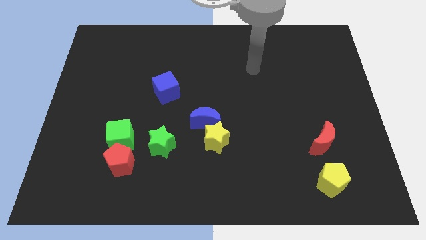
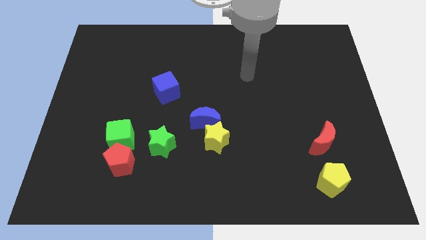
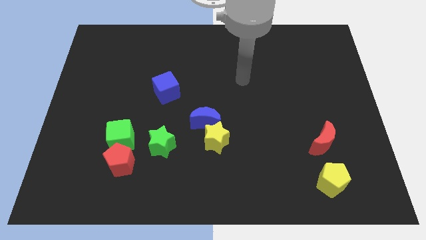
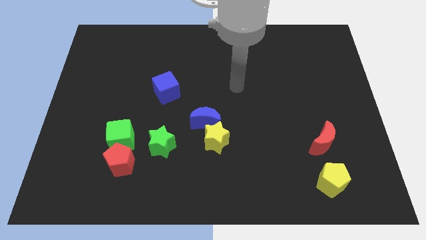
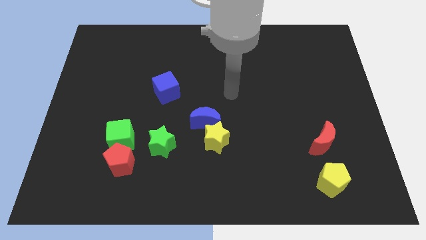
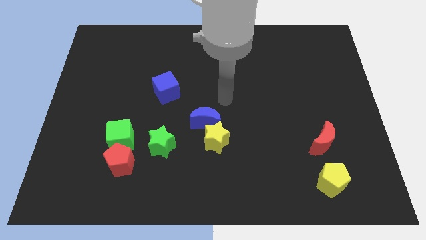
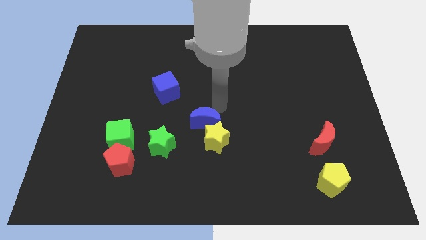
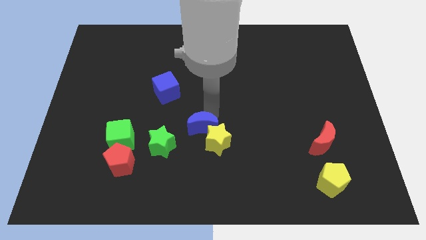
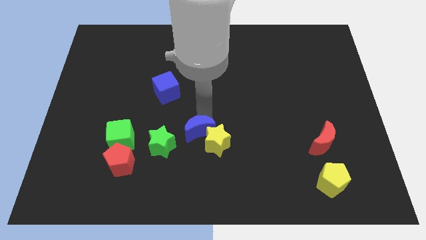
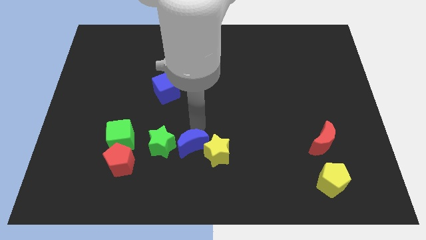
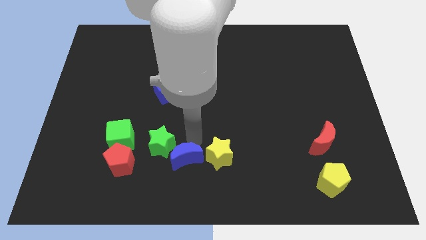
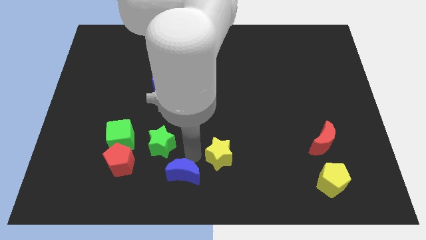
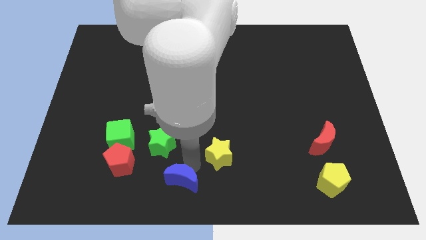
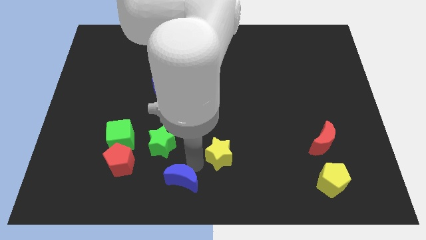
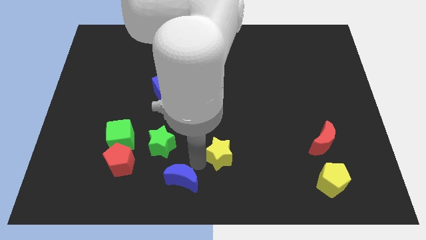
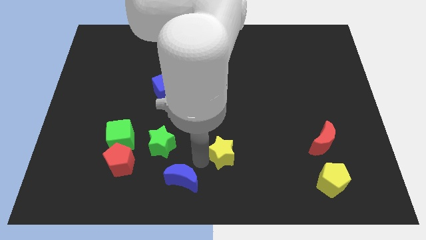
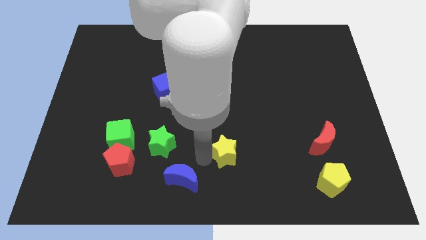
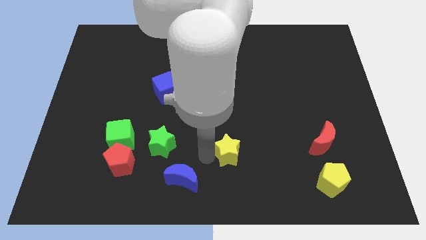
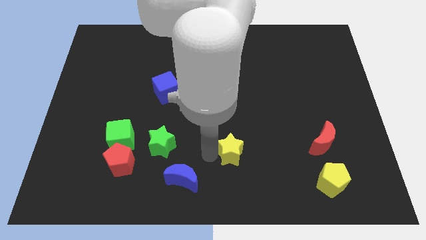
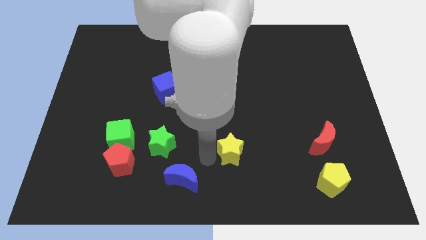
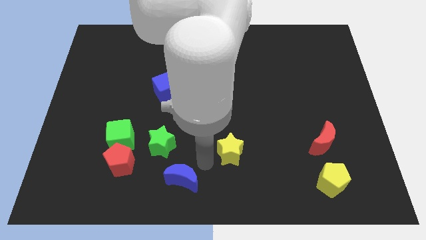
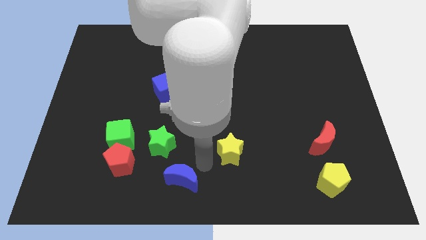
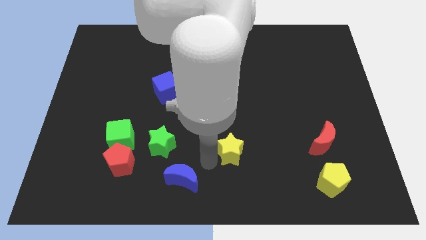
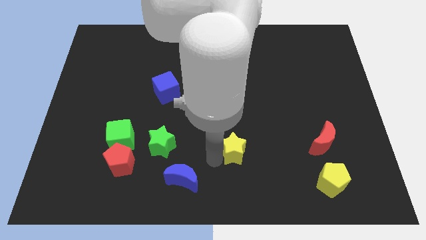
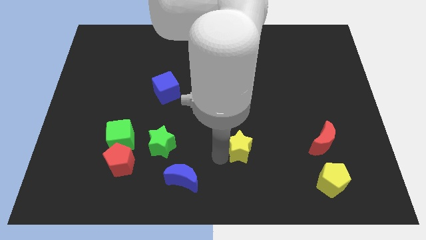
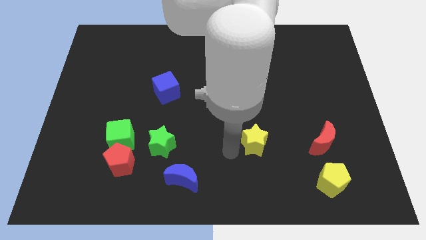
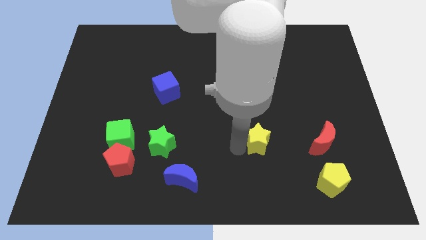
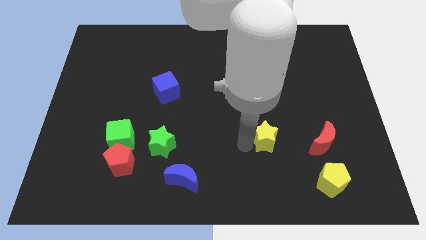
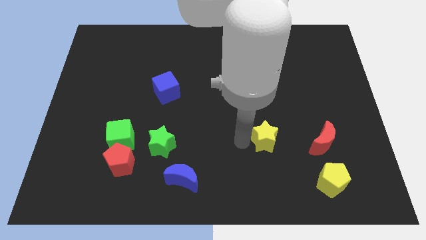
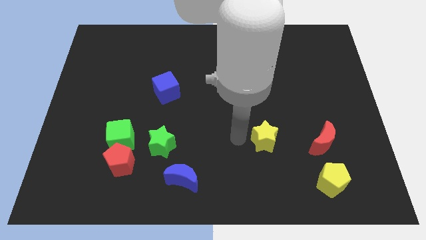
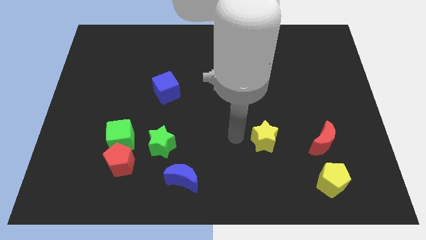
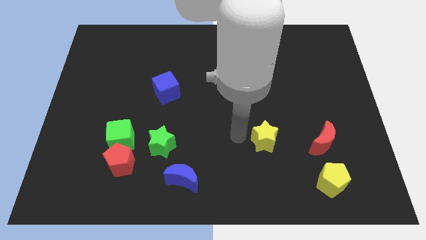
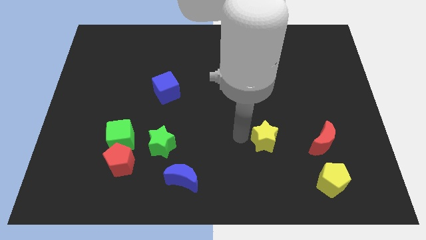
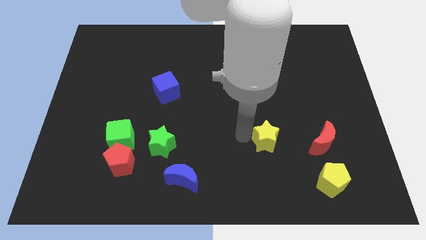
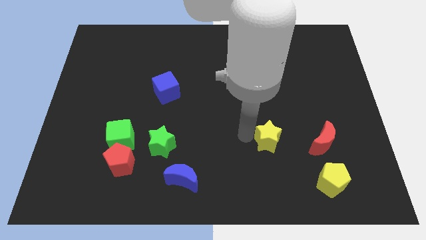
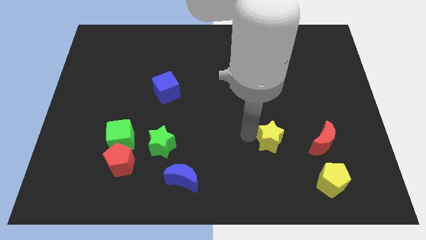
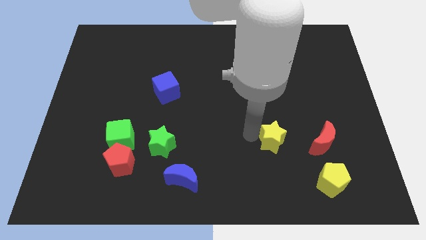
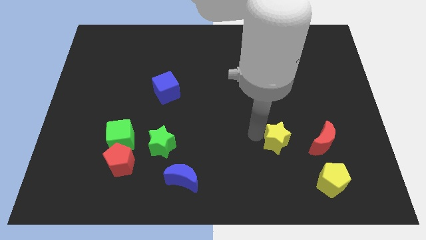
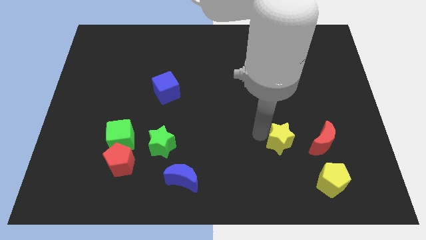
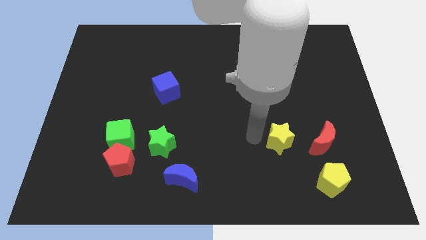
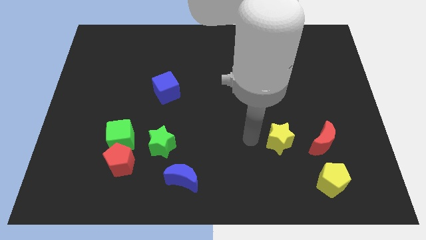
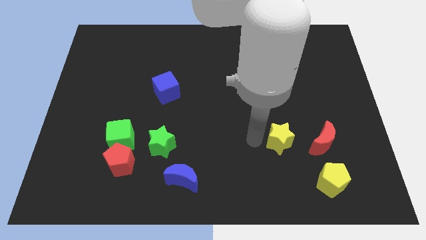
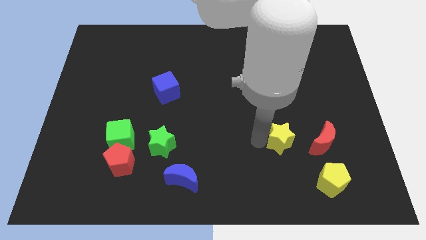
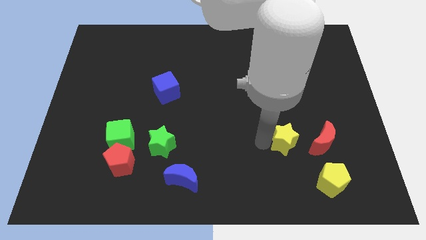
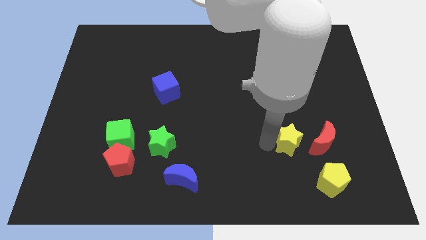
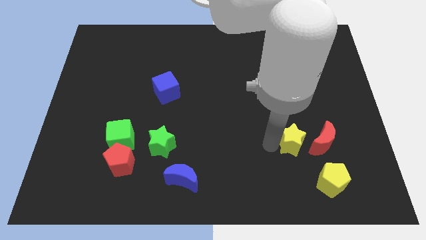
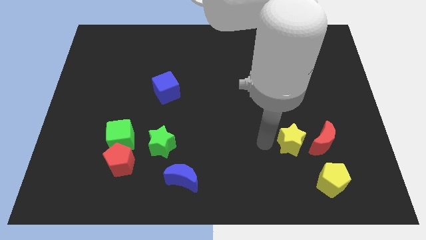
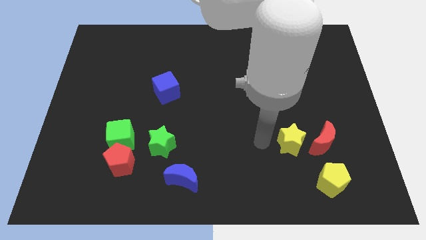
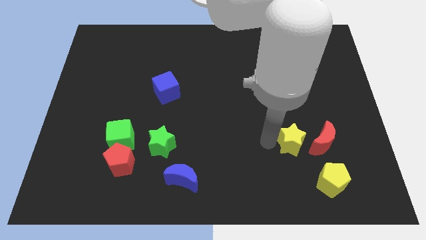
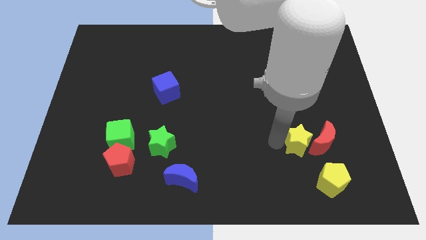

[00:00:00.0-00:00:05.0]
put the yellow star close to the red moon

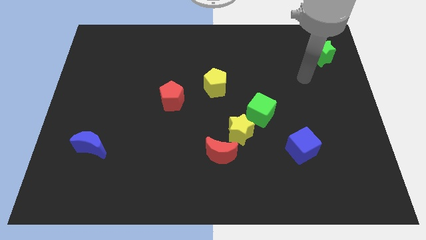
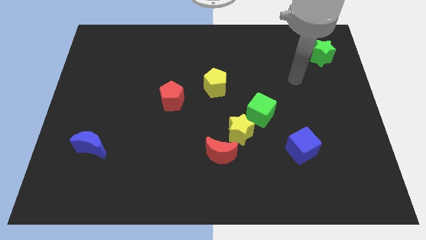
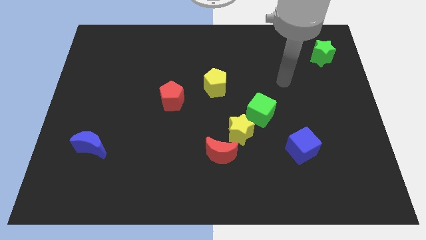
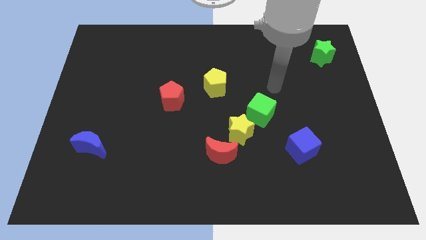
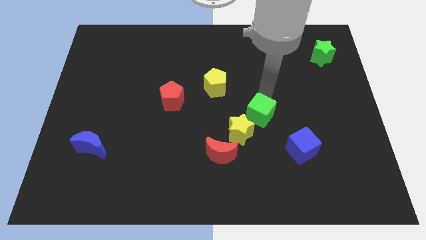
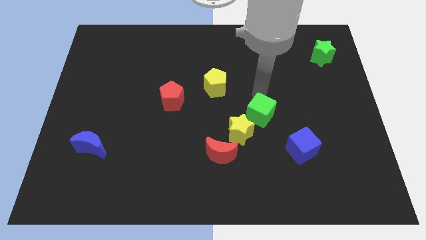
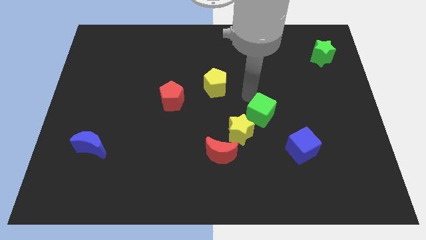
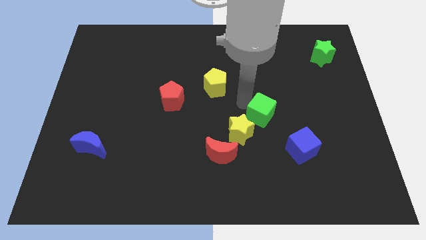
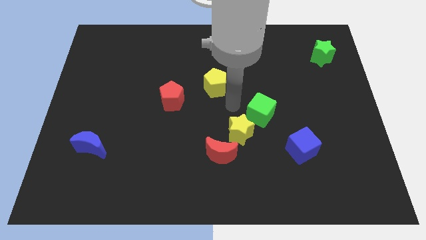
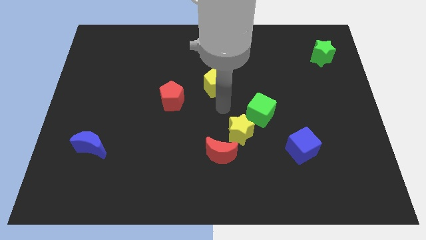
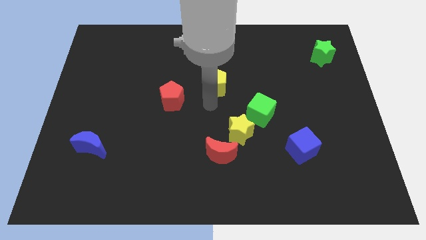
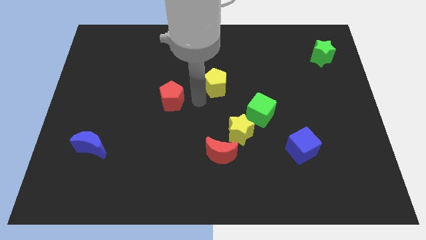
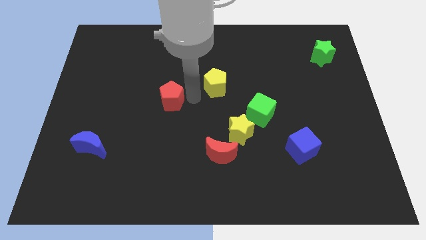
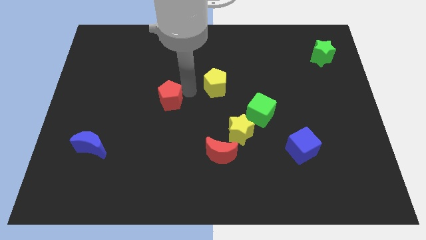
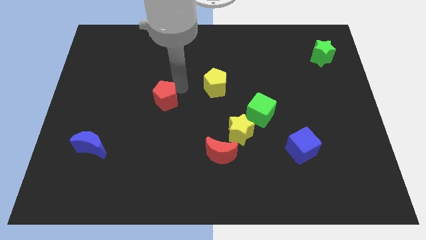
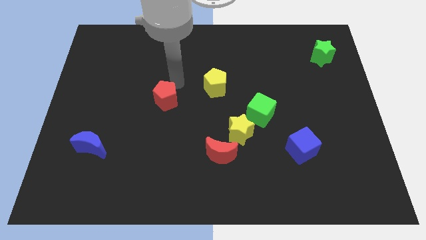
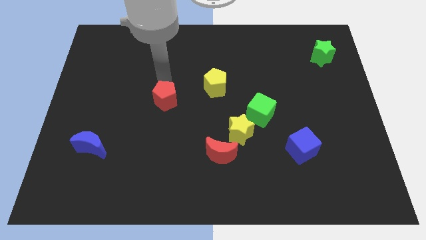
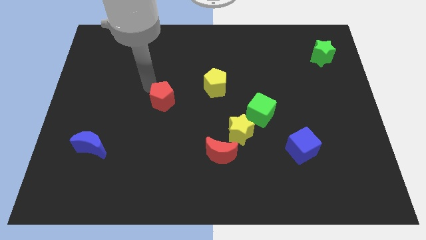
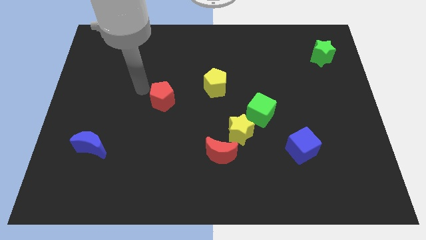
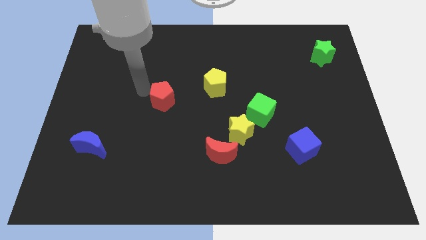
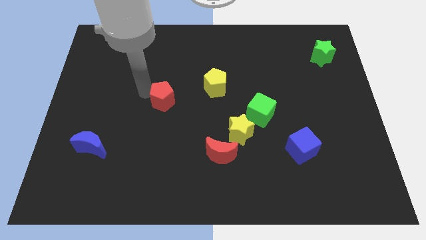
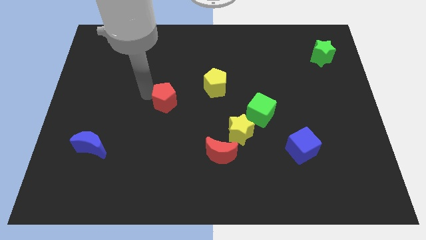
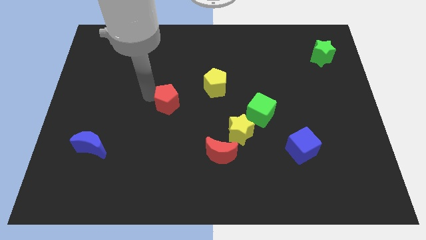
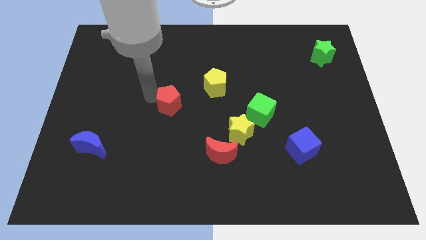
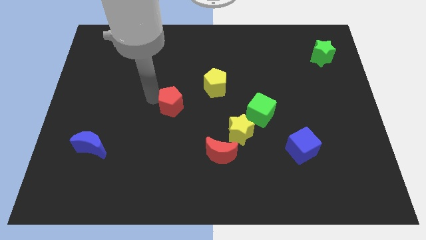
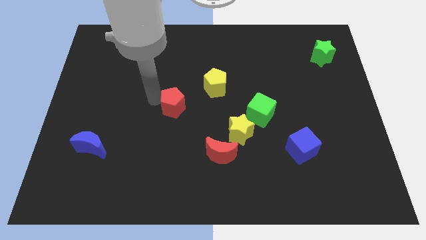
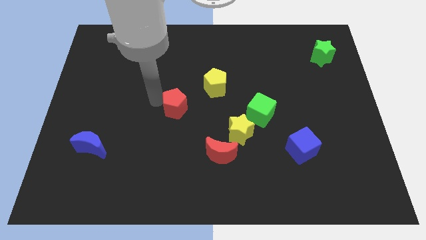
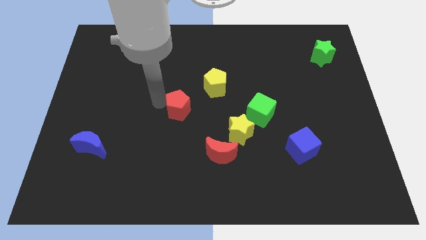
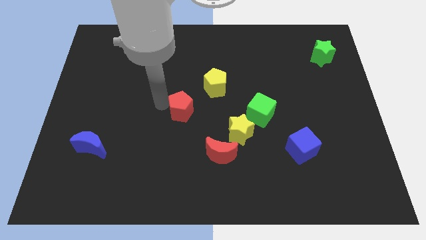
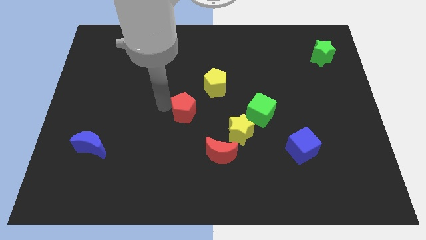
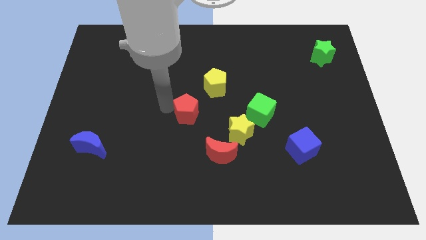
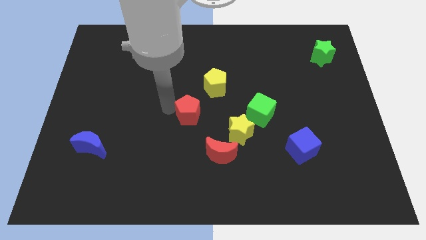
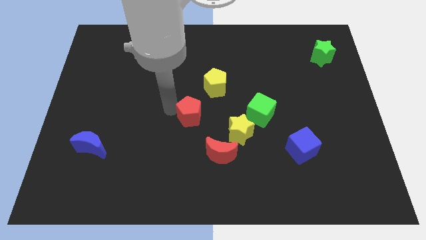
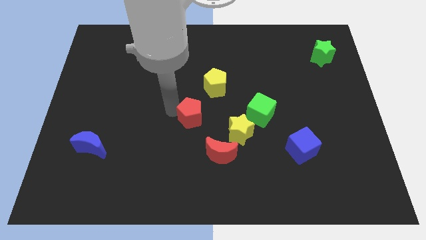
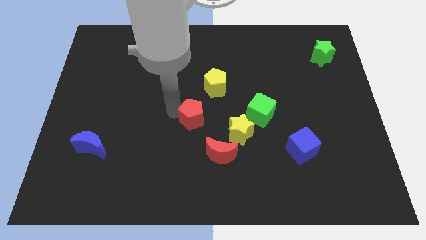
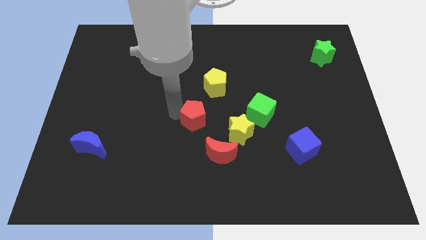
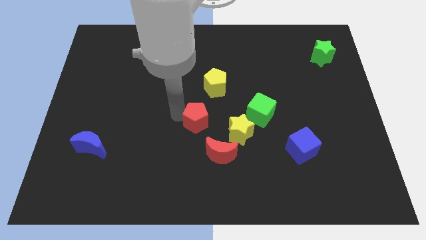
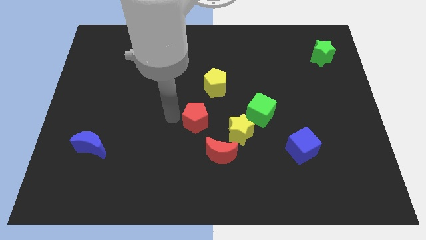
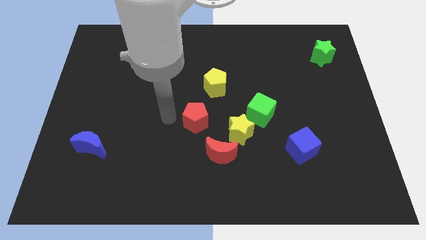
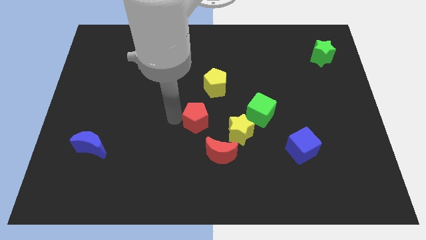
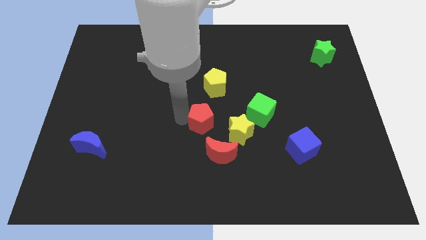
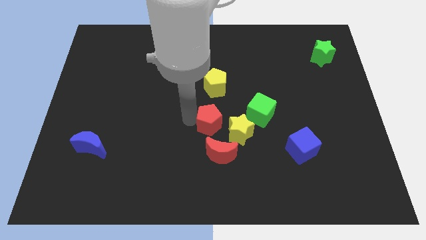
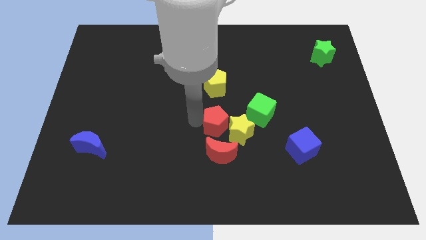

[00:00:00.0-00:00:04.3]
put the red pentagon close to the yellow star
